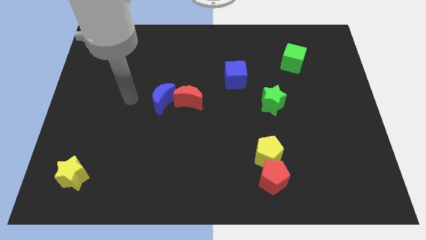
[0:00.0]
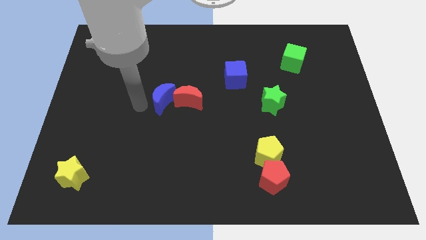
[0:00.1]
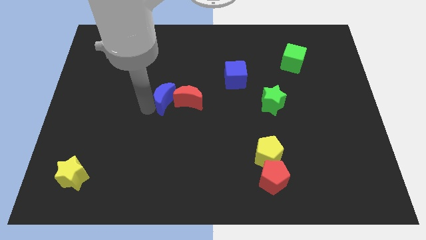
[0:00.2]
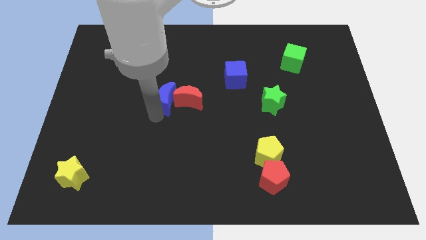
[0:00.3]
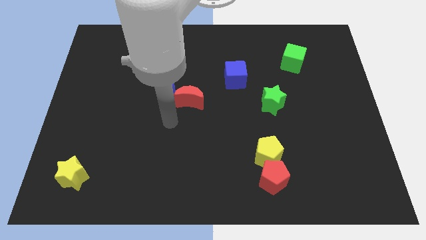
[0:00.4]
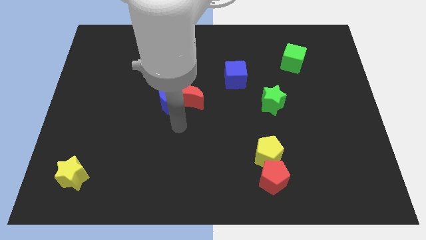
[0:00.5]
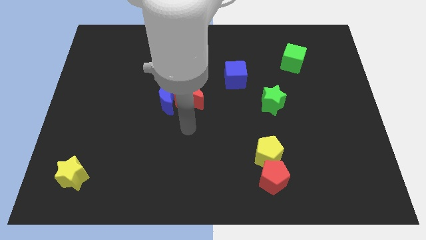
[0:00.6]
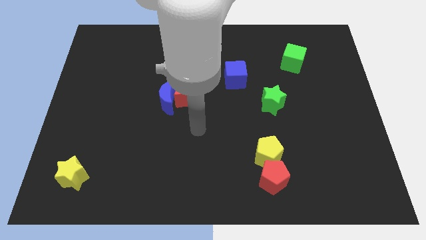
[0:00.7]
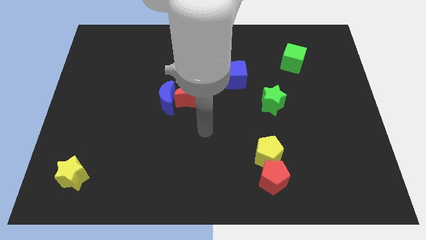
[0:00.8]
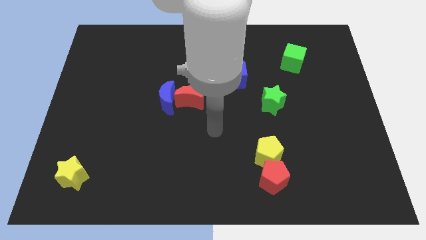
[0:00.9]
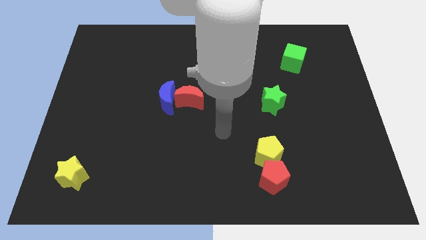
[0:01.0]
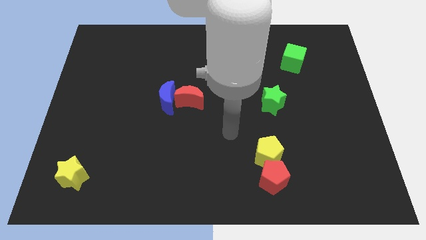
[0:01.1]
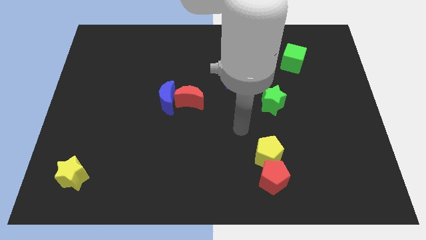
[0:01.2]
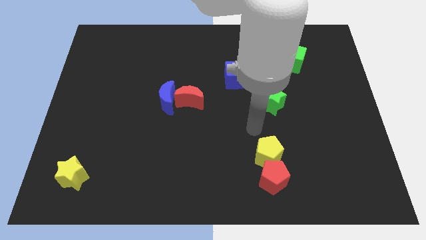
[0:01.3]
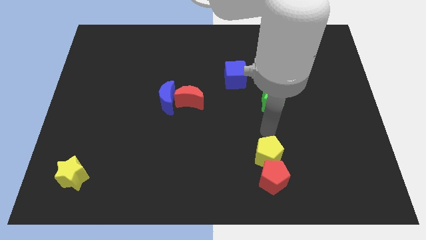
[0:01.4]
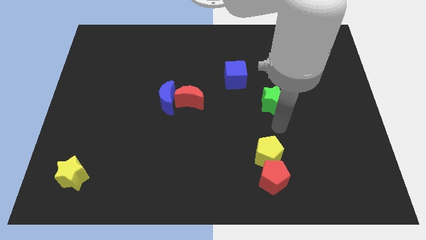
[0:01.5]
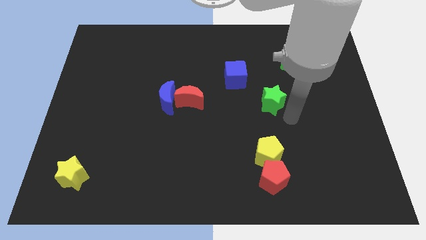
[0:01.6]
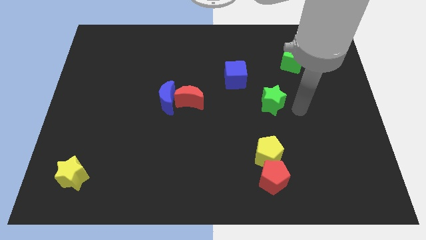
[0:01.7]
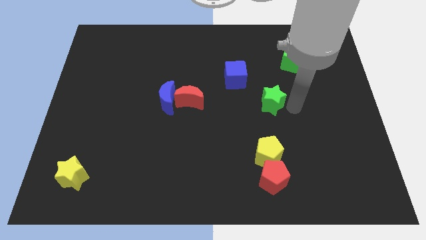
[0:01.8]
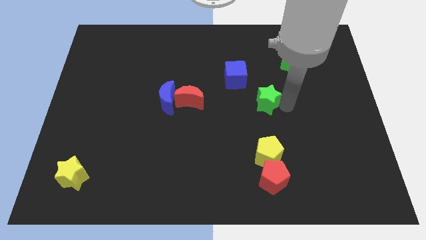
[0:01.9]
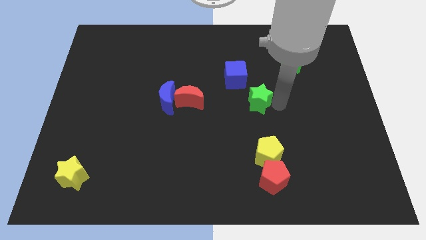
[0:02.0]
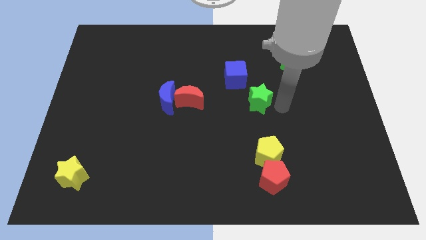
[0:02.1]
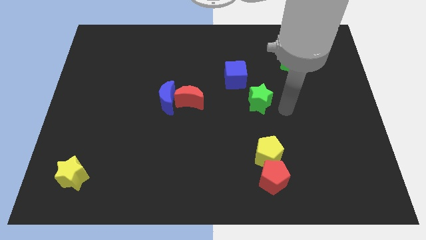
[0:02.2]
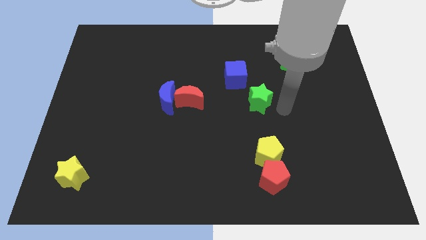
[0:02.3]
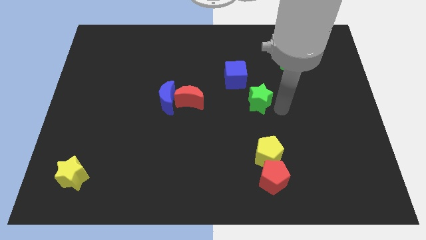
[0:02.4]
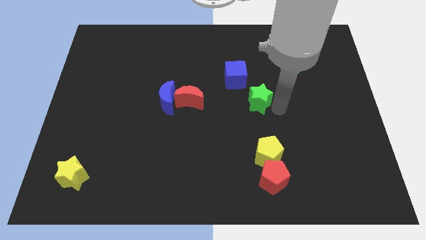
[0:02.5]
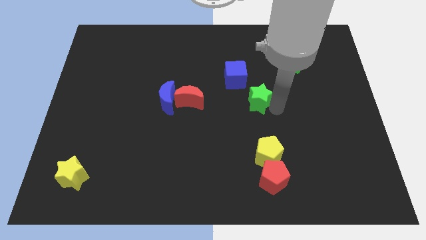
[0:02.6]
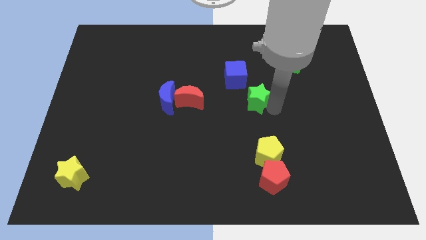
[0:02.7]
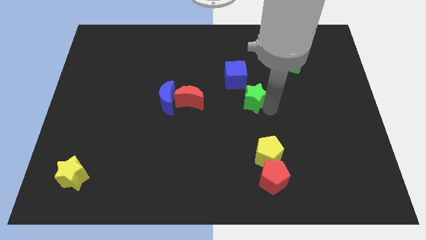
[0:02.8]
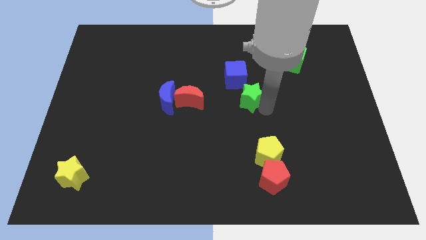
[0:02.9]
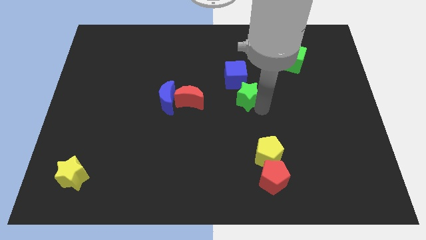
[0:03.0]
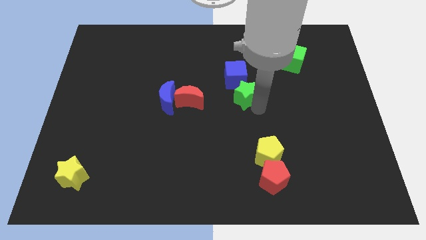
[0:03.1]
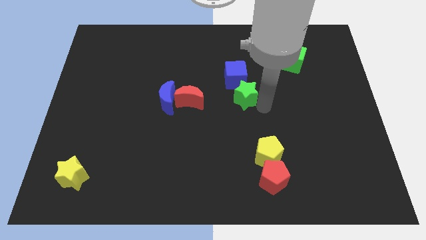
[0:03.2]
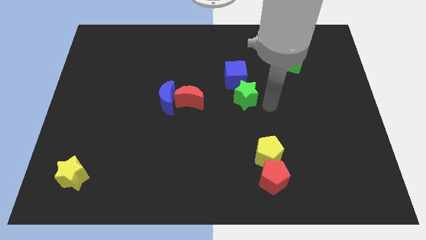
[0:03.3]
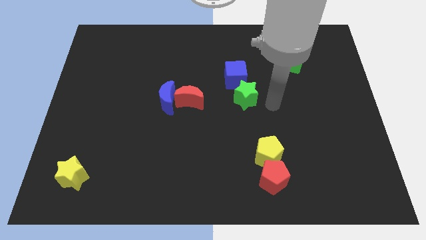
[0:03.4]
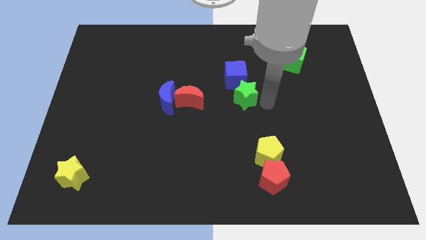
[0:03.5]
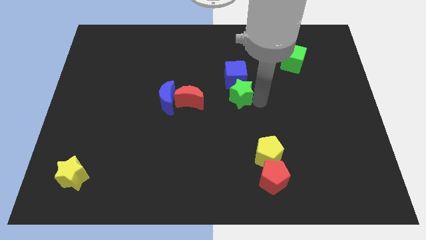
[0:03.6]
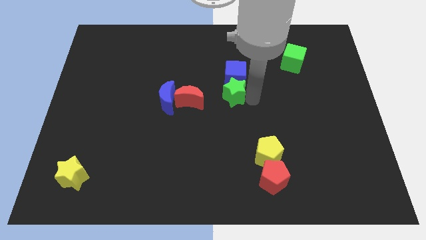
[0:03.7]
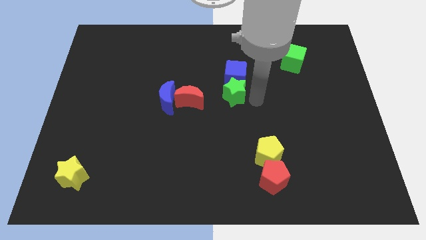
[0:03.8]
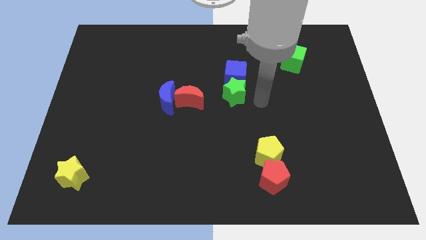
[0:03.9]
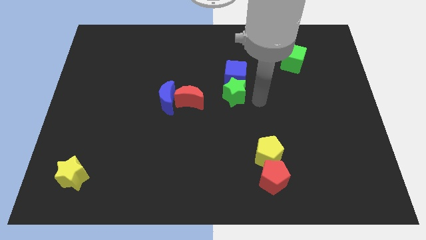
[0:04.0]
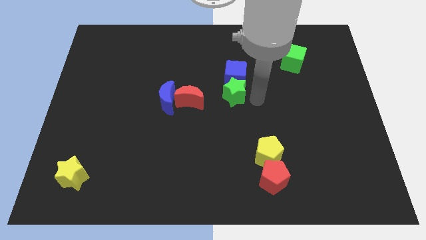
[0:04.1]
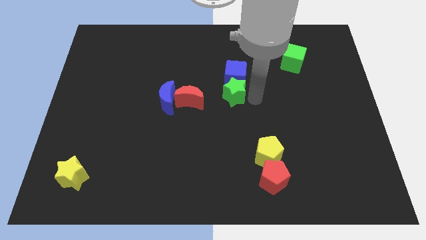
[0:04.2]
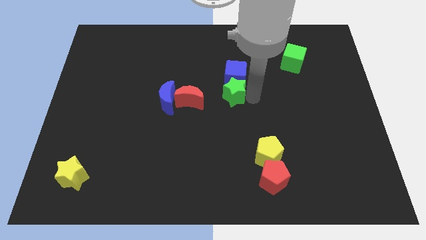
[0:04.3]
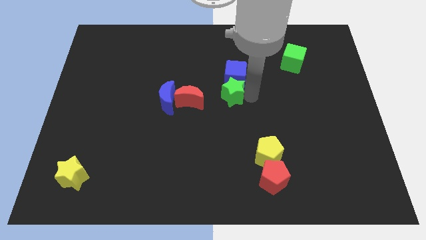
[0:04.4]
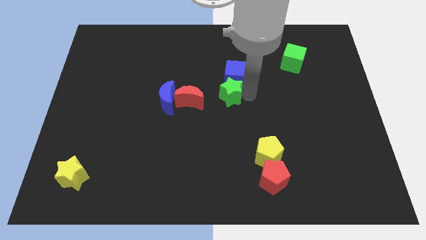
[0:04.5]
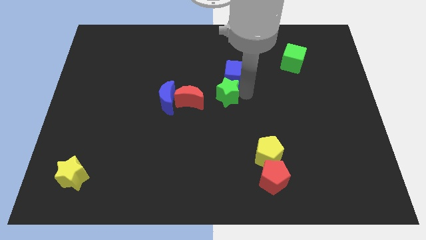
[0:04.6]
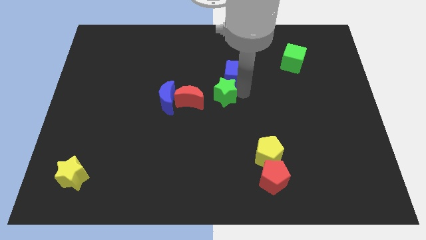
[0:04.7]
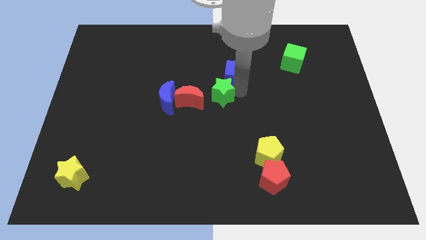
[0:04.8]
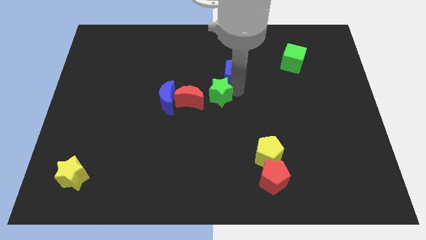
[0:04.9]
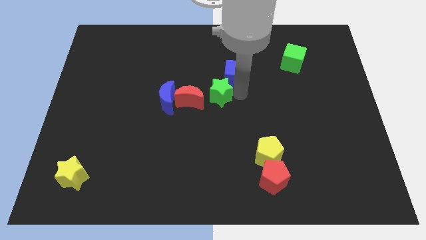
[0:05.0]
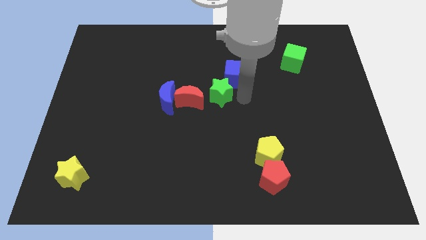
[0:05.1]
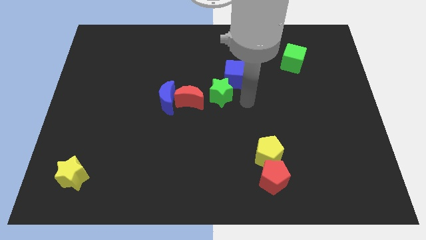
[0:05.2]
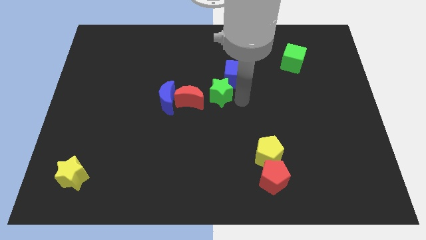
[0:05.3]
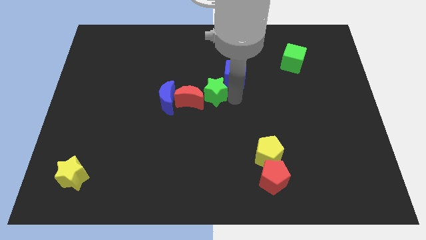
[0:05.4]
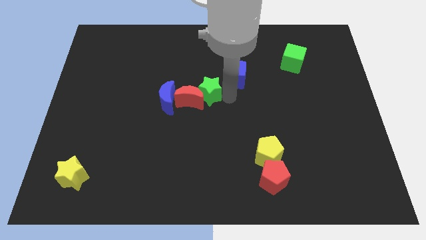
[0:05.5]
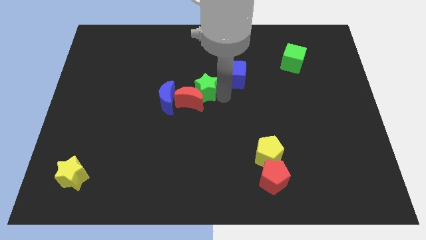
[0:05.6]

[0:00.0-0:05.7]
push the green star to the top right side of the blue moon

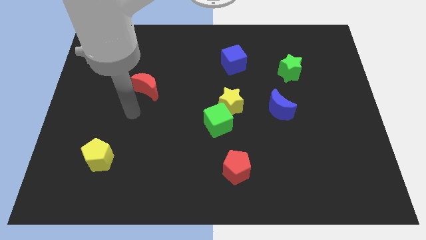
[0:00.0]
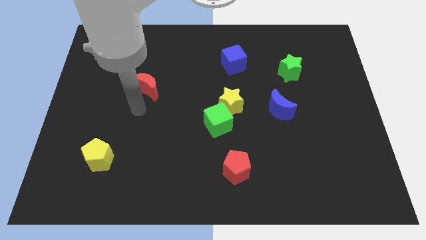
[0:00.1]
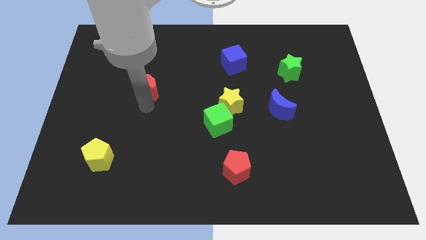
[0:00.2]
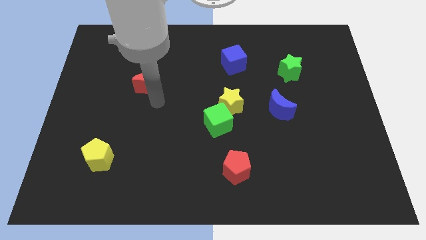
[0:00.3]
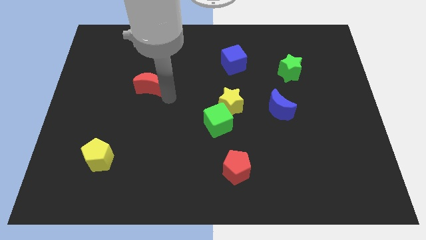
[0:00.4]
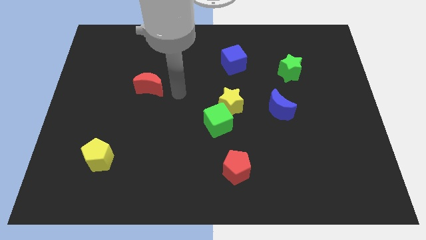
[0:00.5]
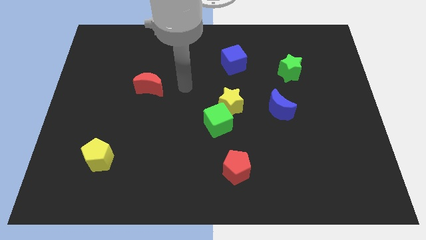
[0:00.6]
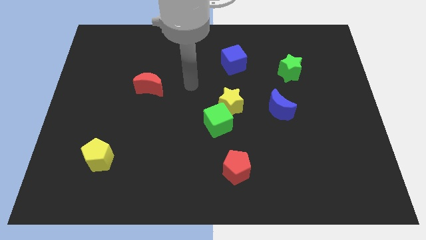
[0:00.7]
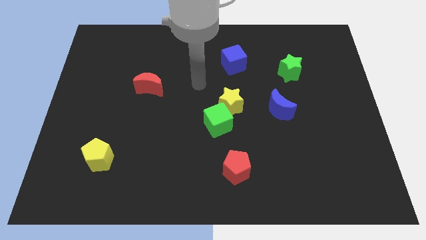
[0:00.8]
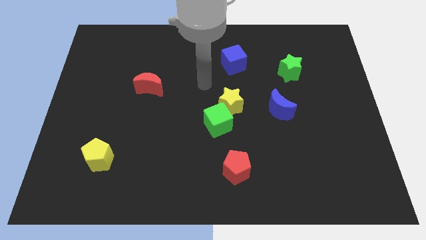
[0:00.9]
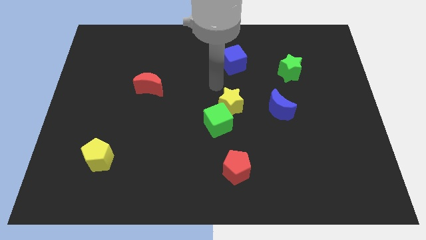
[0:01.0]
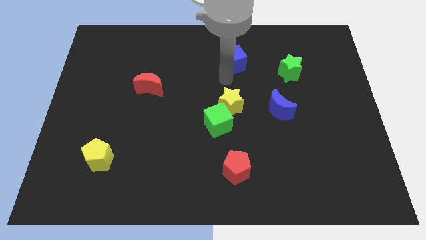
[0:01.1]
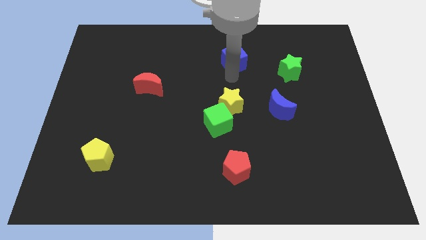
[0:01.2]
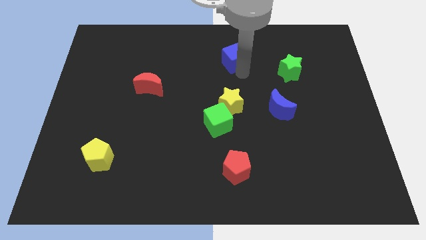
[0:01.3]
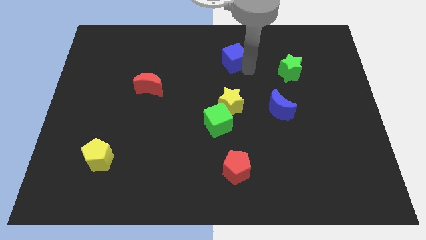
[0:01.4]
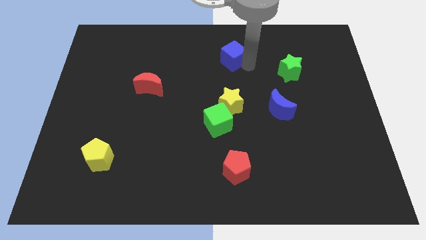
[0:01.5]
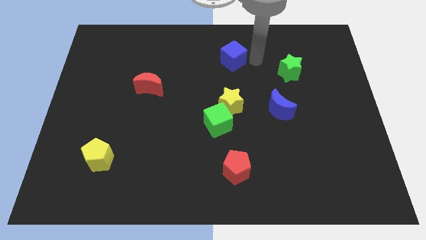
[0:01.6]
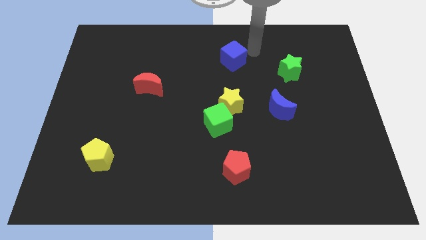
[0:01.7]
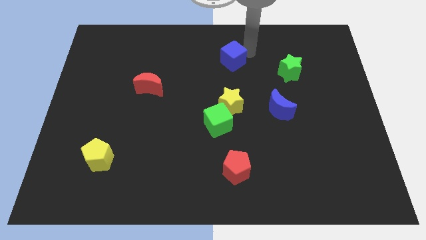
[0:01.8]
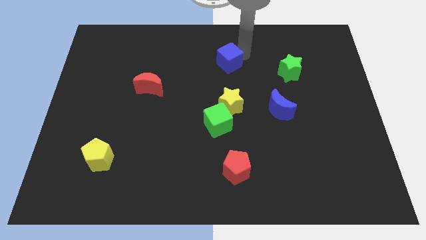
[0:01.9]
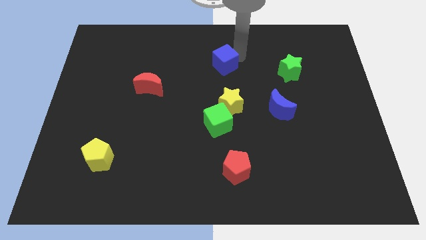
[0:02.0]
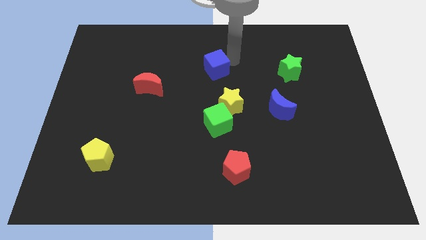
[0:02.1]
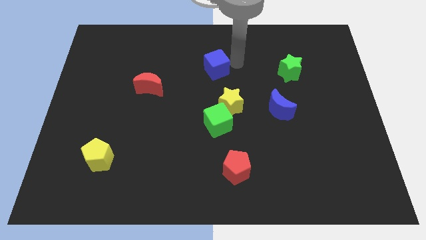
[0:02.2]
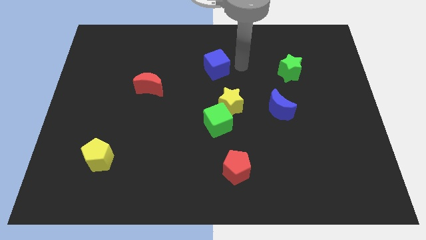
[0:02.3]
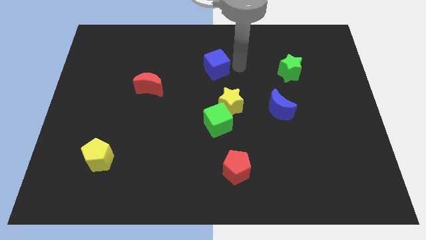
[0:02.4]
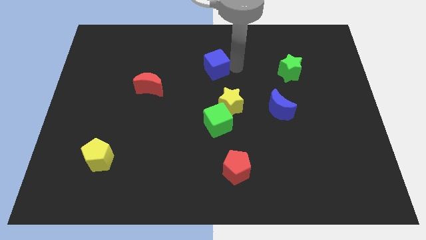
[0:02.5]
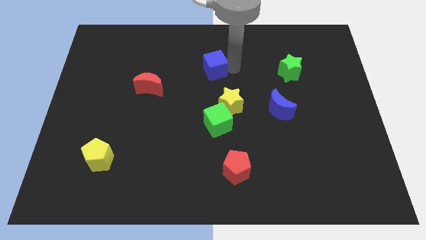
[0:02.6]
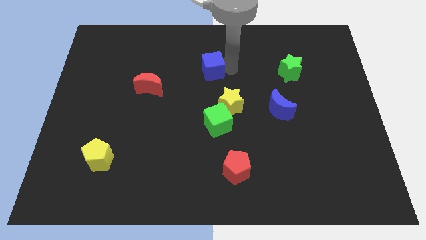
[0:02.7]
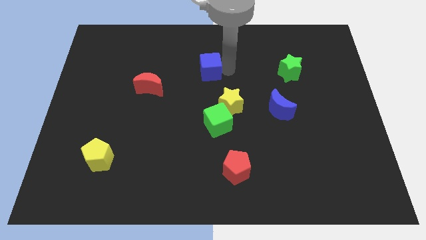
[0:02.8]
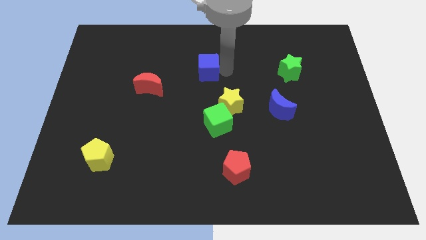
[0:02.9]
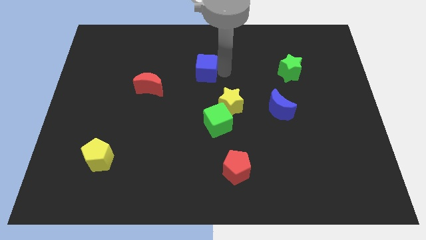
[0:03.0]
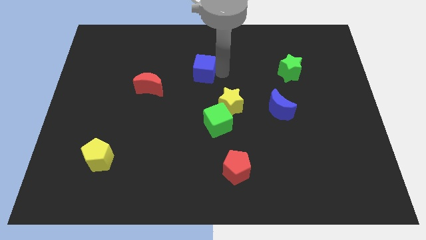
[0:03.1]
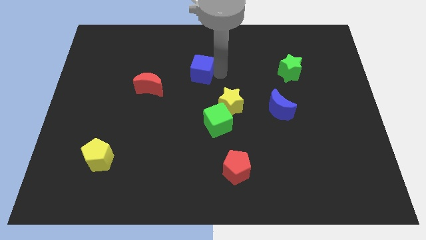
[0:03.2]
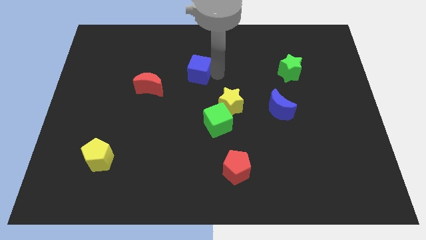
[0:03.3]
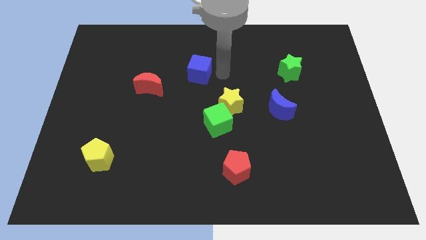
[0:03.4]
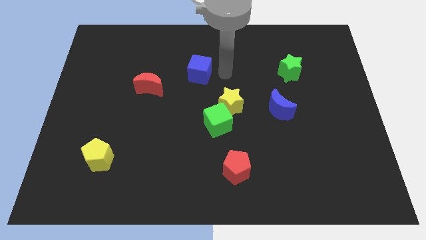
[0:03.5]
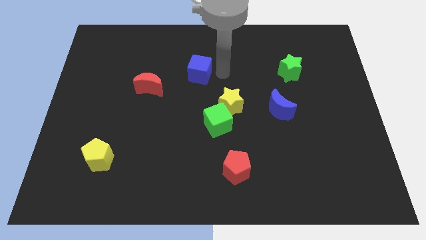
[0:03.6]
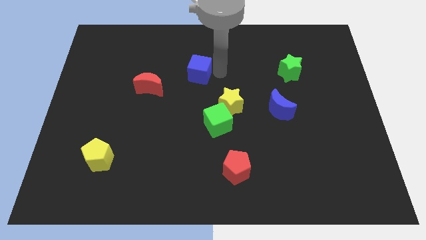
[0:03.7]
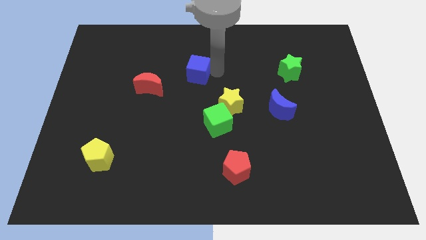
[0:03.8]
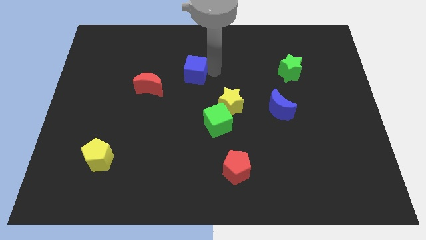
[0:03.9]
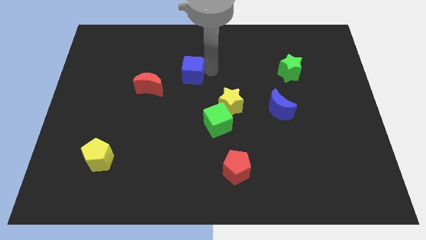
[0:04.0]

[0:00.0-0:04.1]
move the blue cube to the top right side of the red moon
